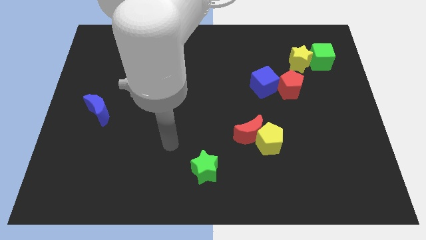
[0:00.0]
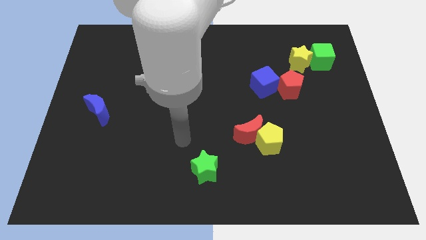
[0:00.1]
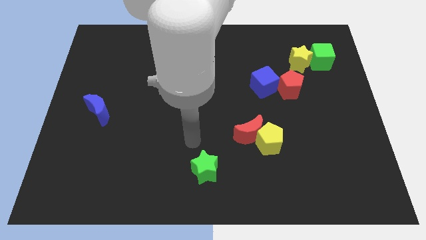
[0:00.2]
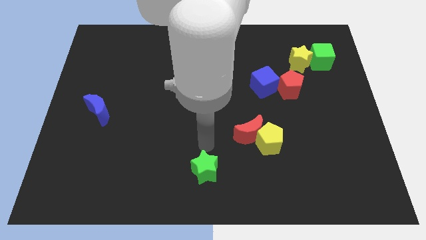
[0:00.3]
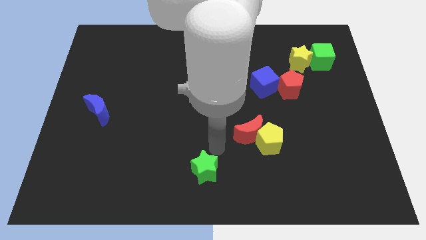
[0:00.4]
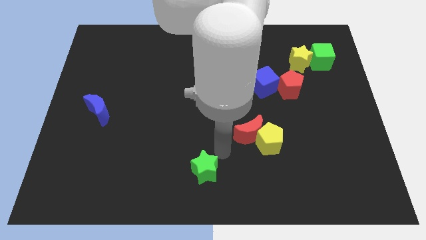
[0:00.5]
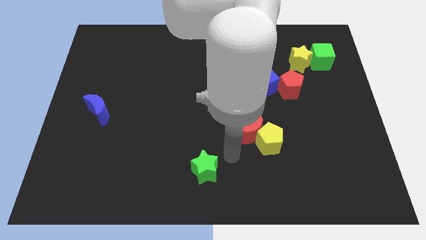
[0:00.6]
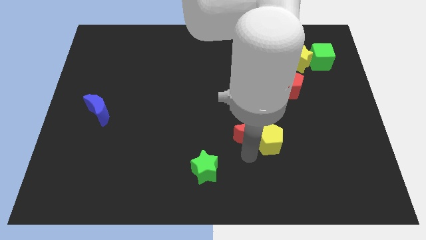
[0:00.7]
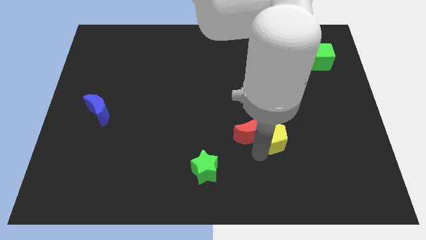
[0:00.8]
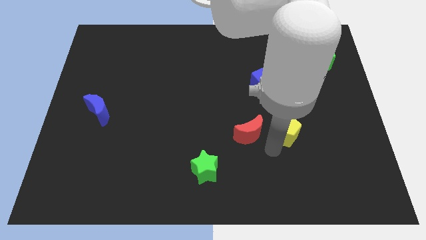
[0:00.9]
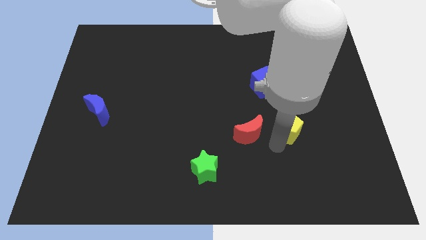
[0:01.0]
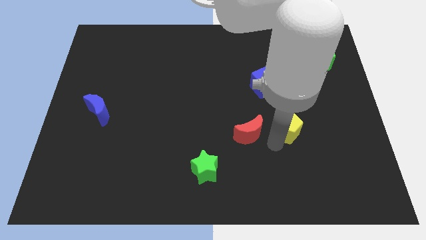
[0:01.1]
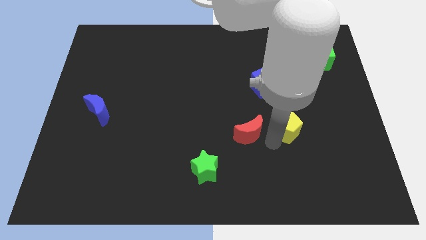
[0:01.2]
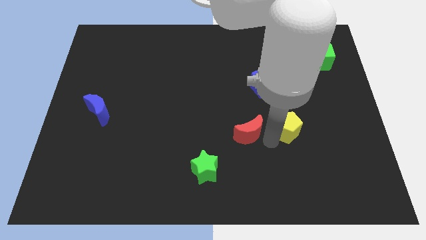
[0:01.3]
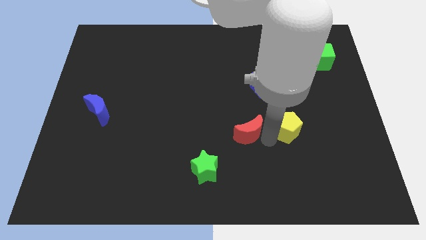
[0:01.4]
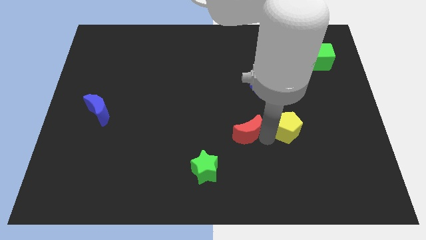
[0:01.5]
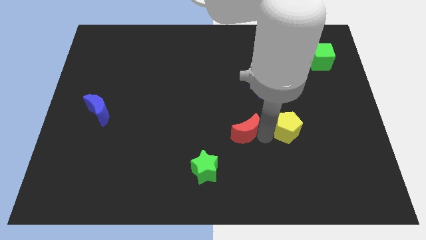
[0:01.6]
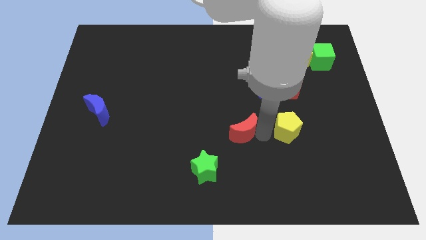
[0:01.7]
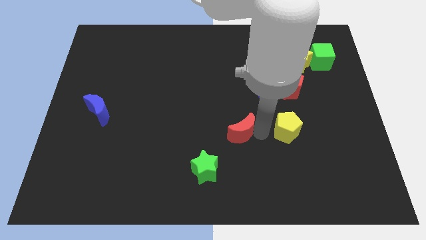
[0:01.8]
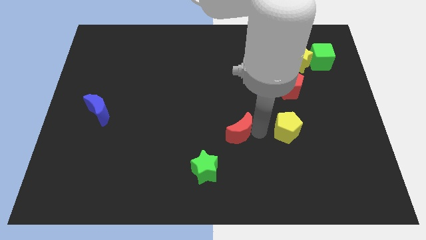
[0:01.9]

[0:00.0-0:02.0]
separate the red moon from the yellow pentagon

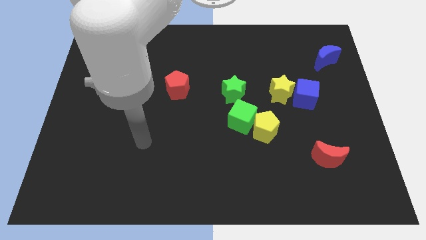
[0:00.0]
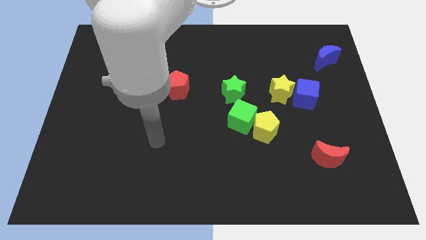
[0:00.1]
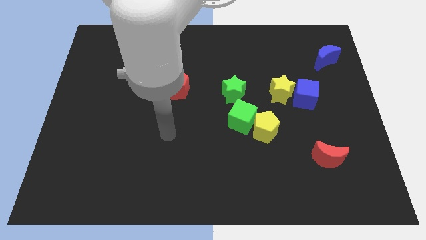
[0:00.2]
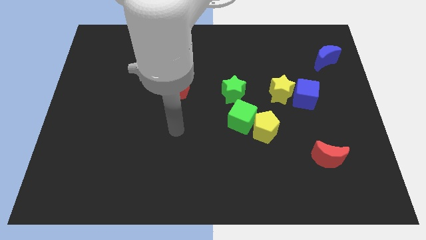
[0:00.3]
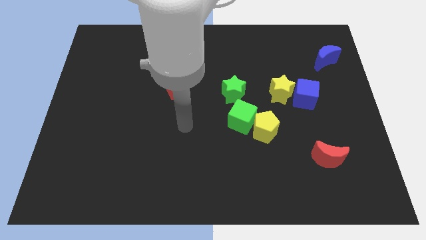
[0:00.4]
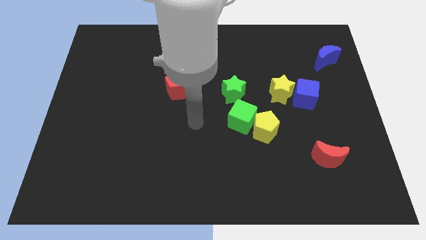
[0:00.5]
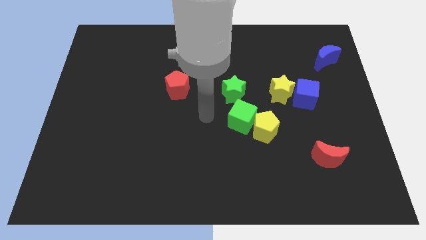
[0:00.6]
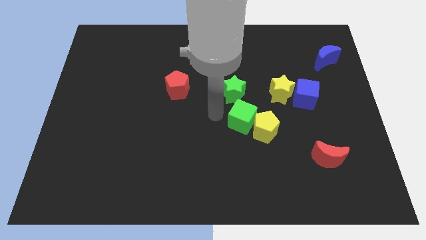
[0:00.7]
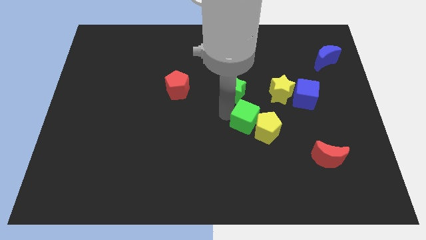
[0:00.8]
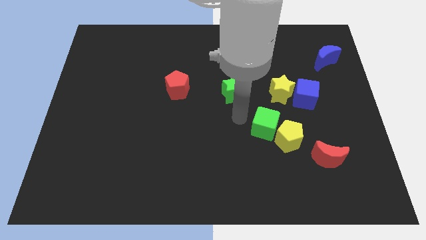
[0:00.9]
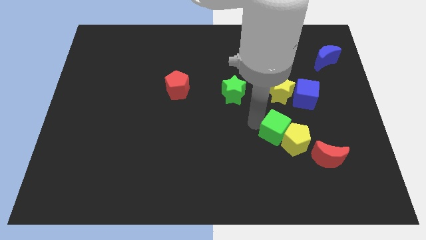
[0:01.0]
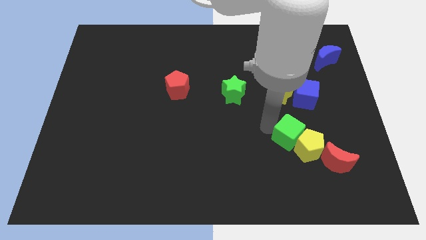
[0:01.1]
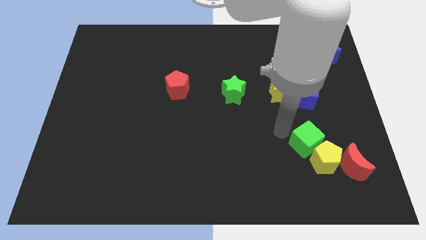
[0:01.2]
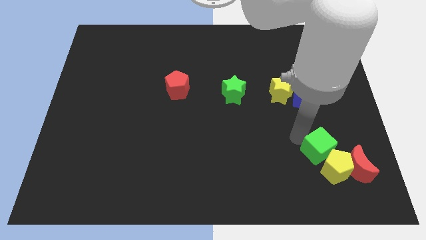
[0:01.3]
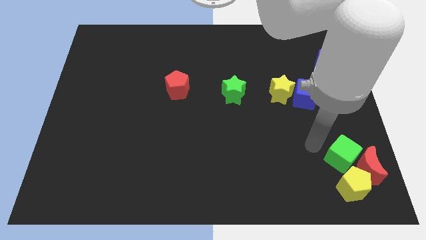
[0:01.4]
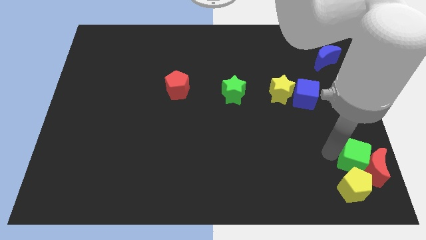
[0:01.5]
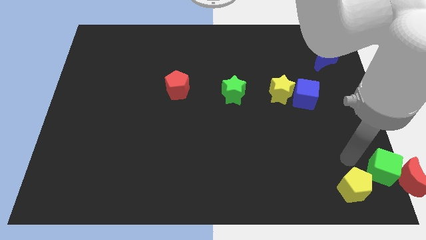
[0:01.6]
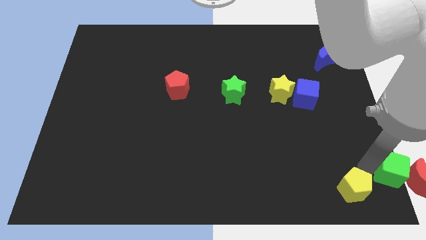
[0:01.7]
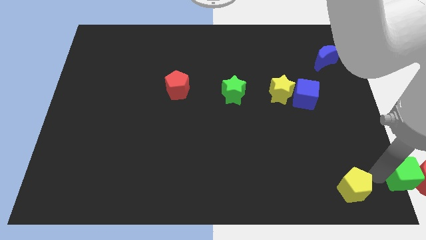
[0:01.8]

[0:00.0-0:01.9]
move the yellow pentagon away from the green cube

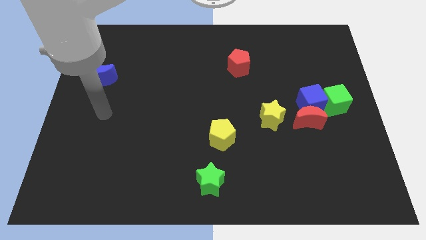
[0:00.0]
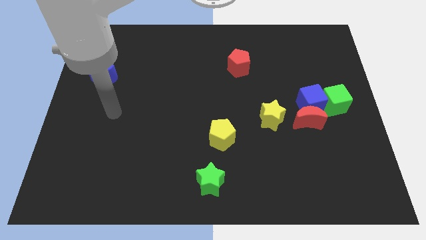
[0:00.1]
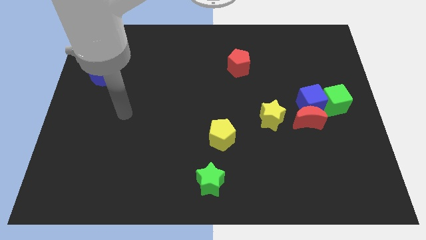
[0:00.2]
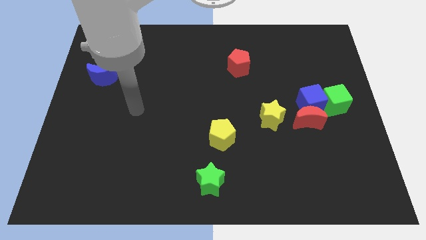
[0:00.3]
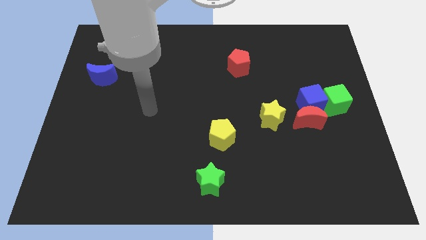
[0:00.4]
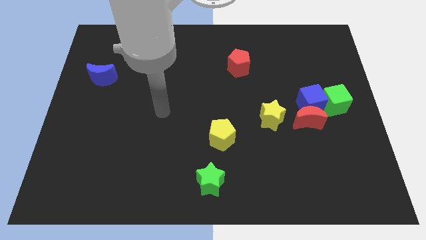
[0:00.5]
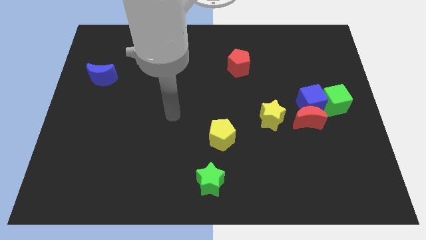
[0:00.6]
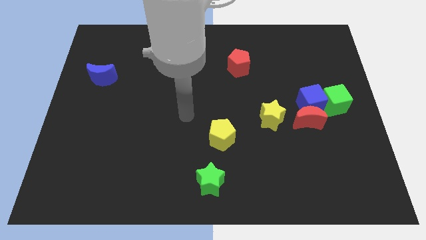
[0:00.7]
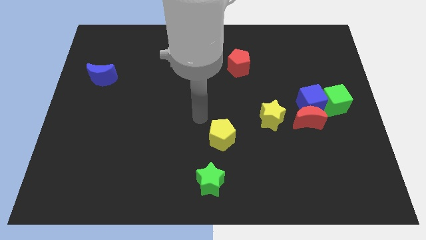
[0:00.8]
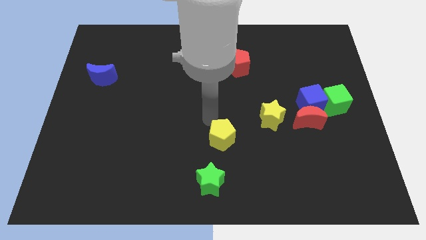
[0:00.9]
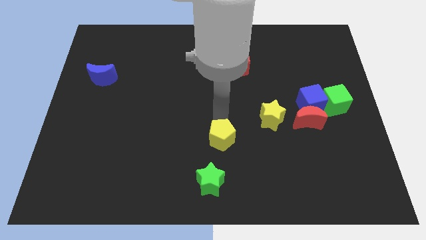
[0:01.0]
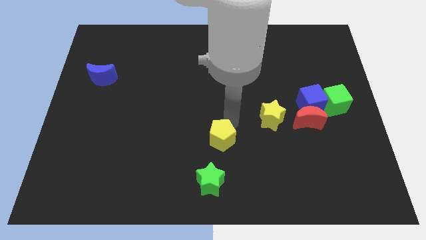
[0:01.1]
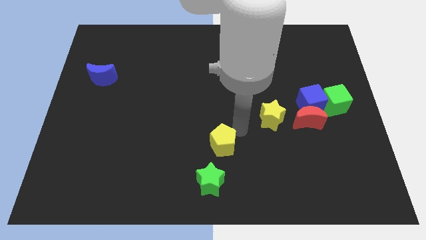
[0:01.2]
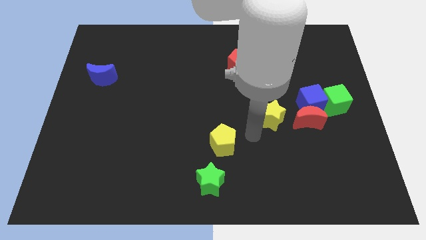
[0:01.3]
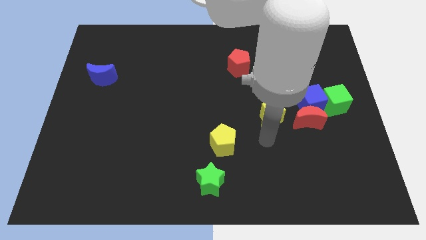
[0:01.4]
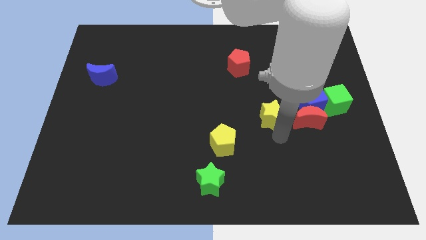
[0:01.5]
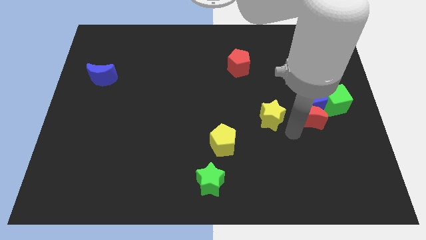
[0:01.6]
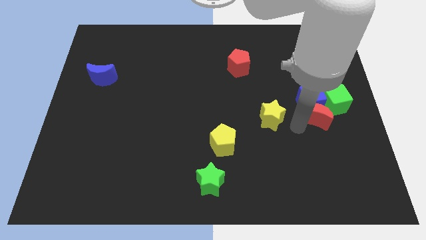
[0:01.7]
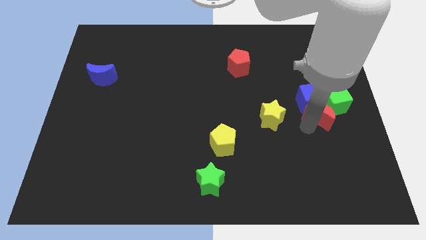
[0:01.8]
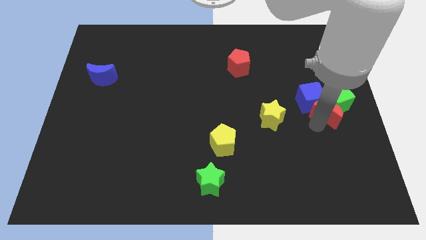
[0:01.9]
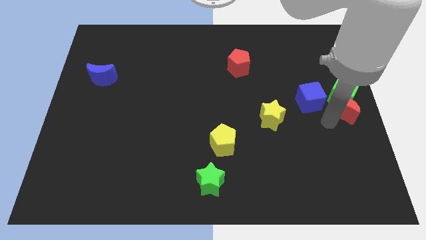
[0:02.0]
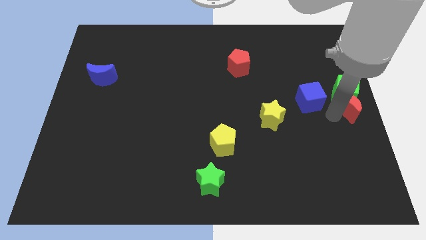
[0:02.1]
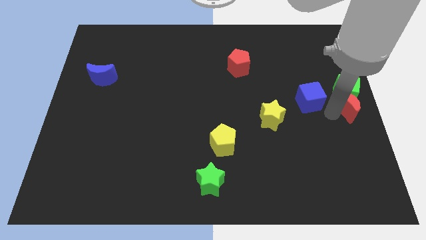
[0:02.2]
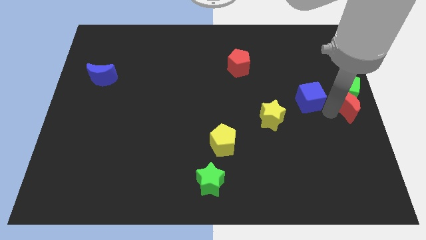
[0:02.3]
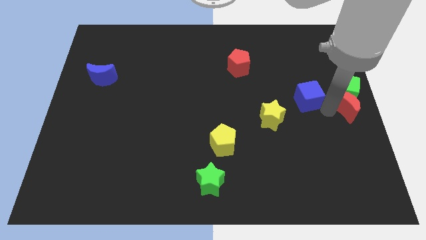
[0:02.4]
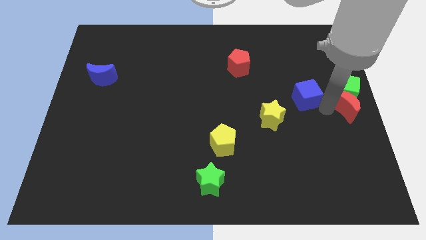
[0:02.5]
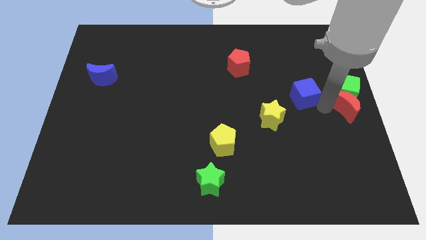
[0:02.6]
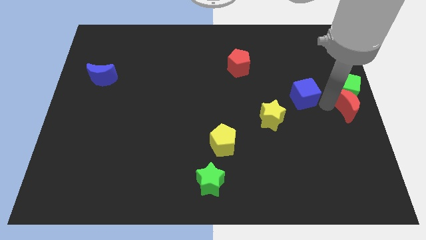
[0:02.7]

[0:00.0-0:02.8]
move the blue cube away from the red moon and green cube

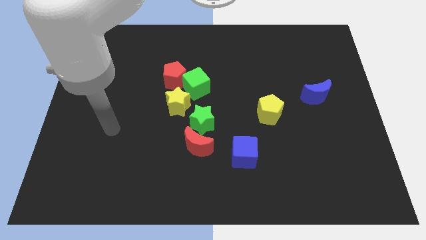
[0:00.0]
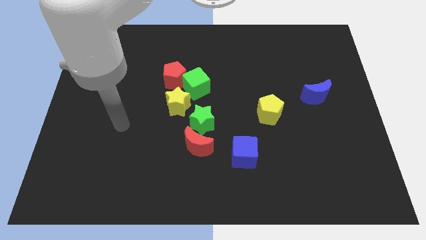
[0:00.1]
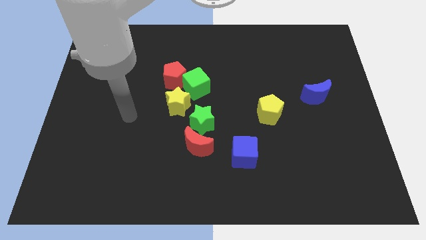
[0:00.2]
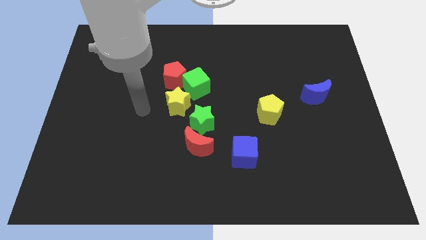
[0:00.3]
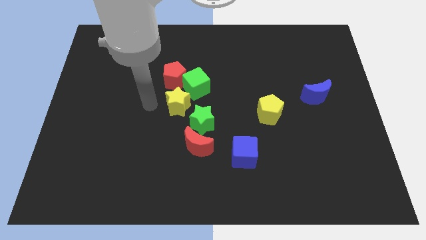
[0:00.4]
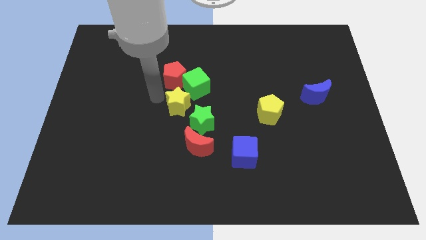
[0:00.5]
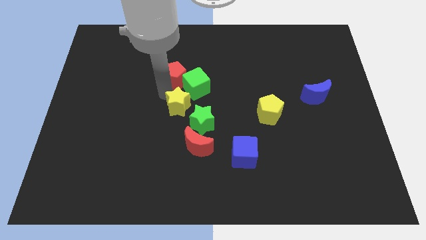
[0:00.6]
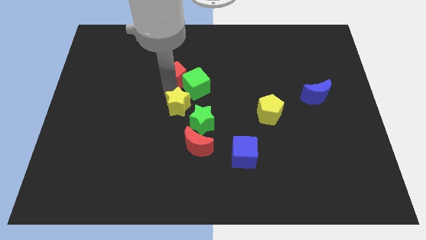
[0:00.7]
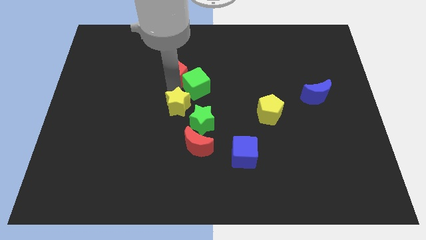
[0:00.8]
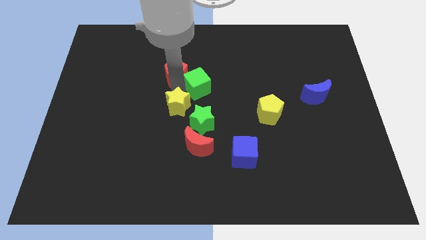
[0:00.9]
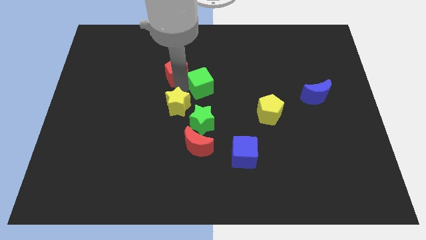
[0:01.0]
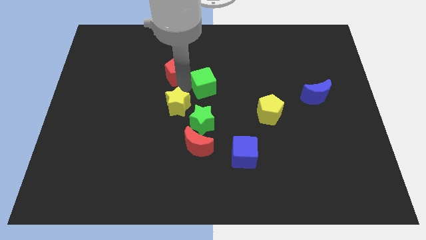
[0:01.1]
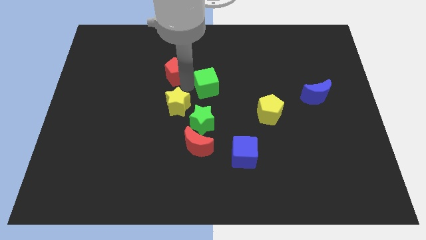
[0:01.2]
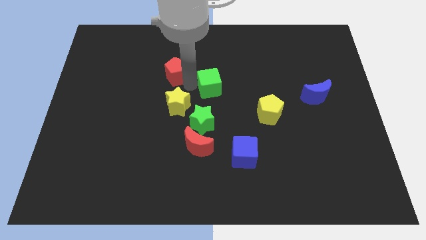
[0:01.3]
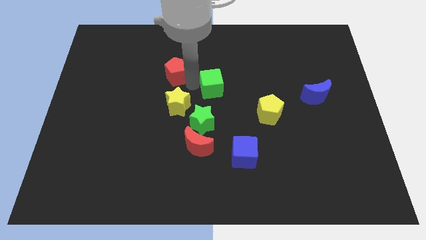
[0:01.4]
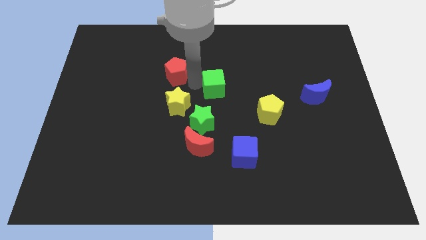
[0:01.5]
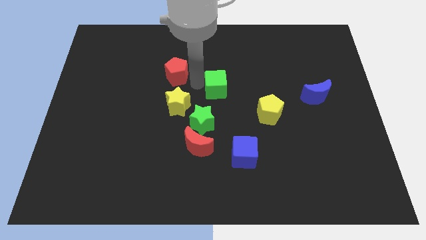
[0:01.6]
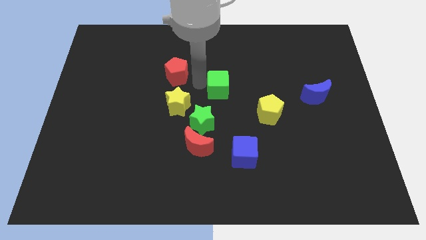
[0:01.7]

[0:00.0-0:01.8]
separate the green cube from the red pentagon and yellow star

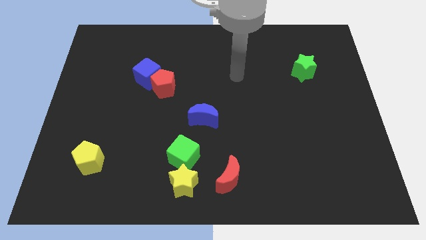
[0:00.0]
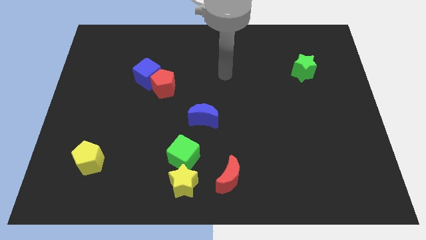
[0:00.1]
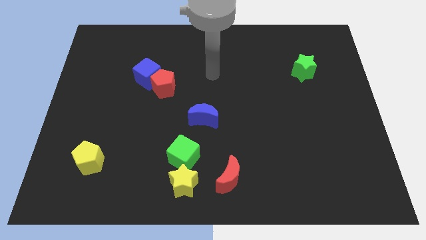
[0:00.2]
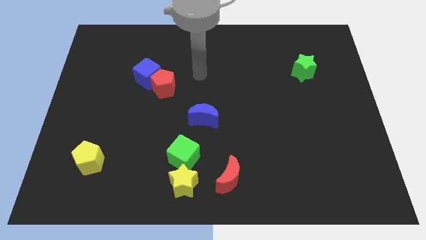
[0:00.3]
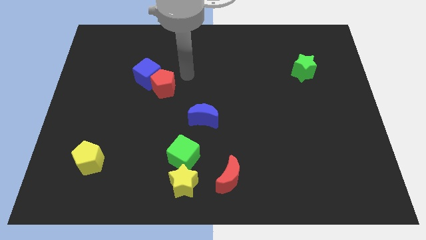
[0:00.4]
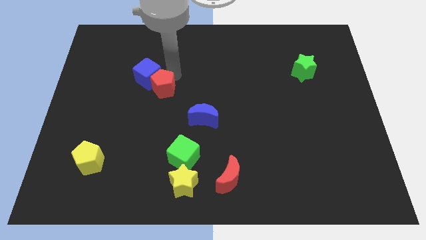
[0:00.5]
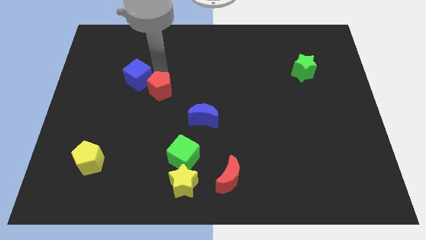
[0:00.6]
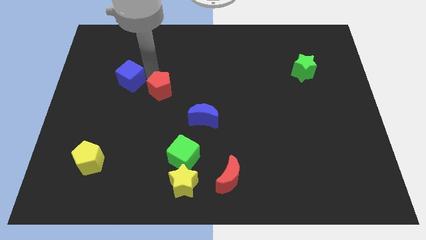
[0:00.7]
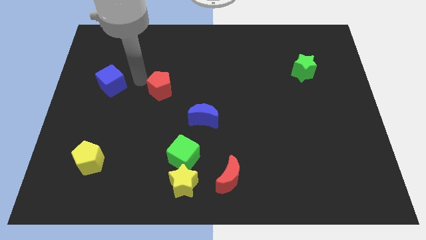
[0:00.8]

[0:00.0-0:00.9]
pull the red pentagon apart from the blue cube
